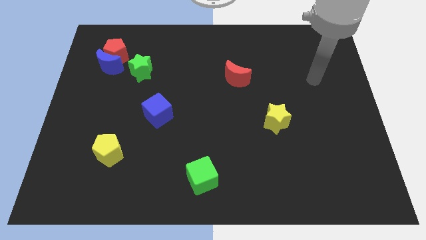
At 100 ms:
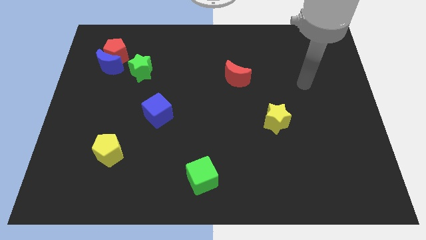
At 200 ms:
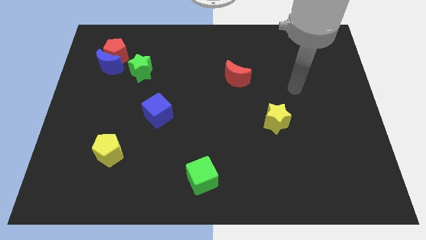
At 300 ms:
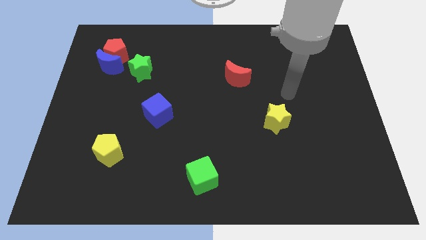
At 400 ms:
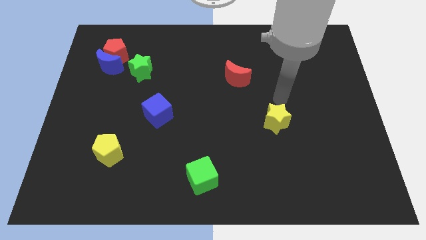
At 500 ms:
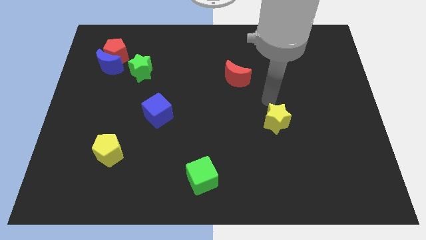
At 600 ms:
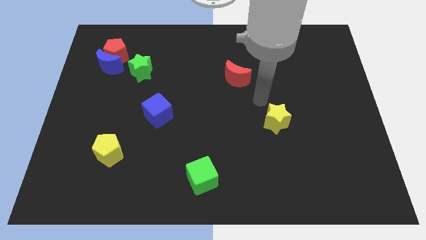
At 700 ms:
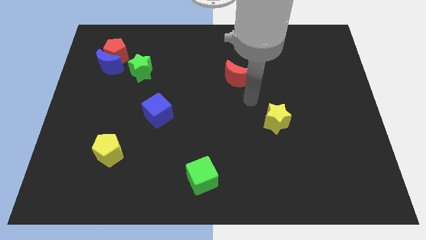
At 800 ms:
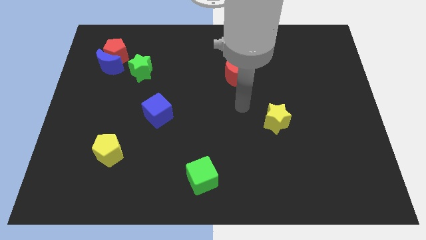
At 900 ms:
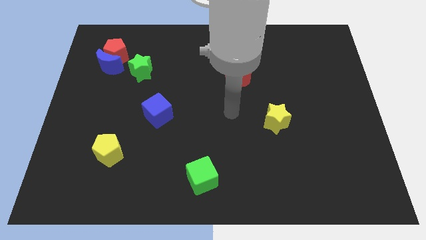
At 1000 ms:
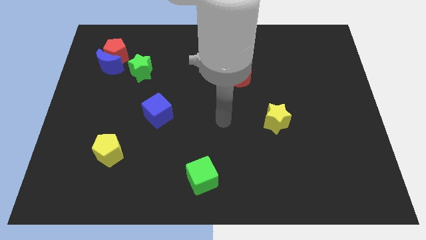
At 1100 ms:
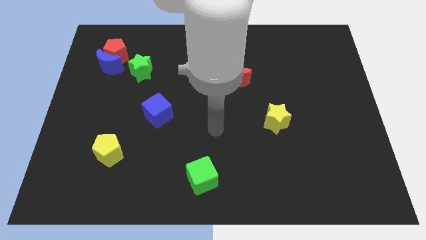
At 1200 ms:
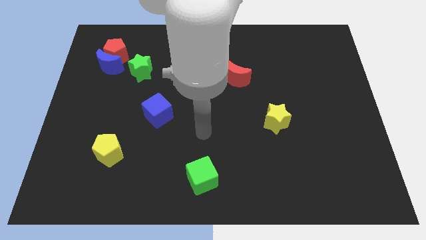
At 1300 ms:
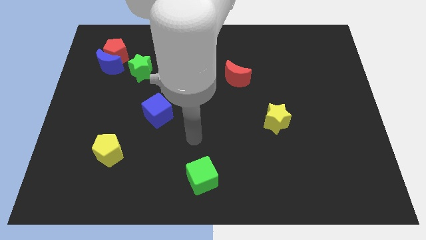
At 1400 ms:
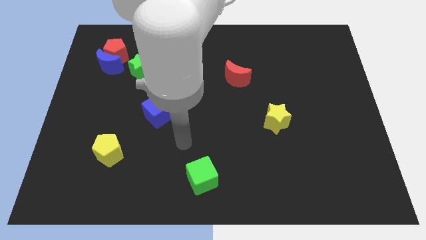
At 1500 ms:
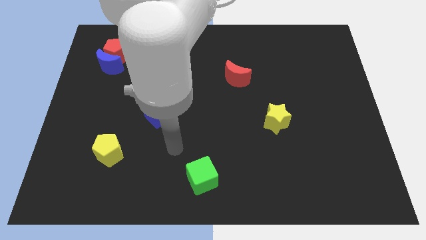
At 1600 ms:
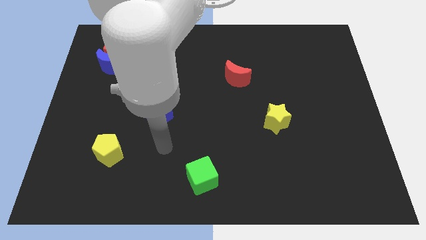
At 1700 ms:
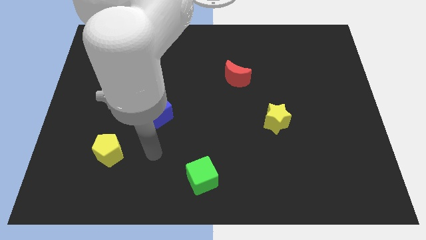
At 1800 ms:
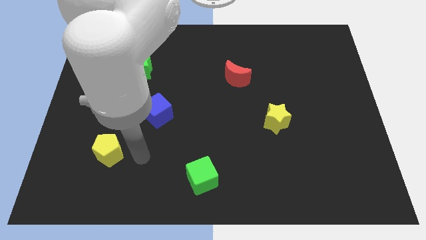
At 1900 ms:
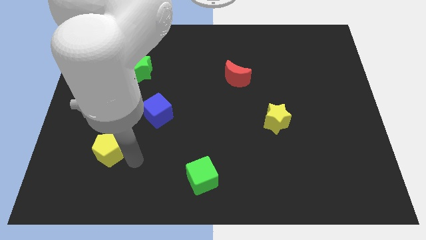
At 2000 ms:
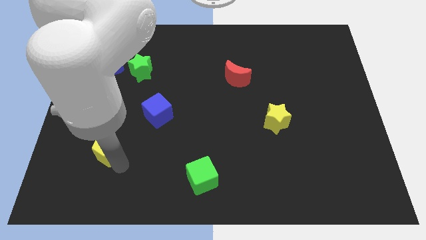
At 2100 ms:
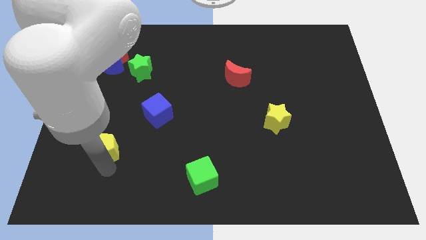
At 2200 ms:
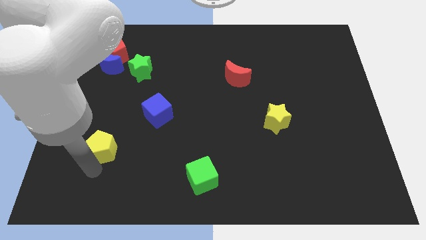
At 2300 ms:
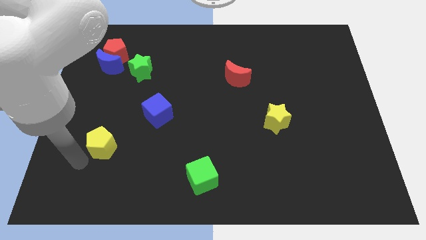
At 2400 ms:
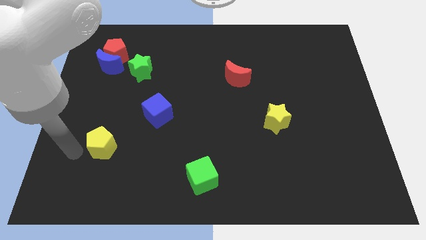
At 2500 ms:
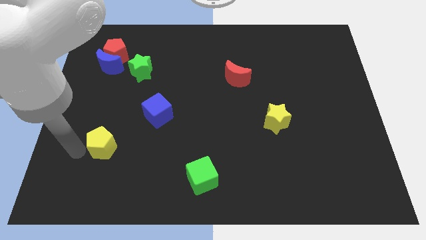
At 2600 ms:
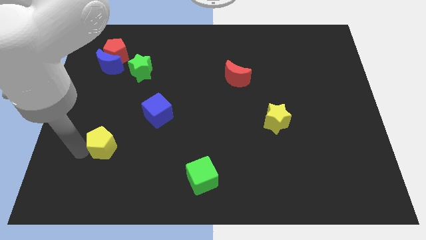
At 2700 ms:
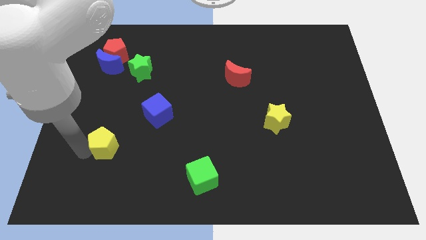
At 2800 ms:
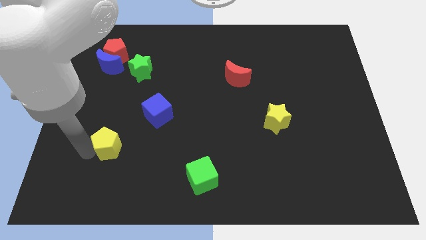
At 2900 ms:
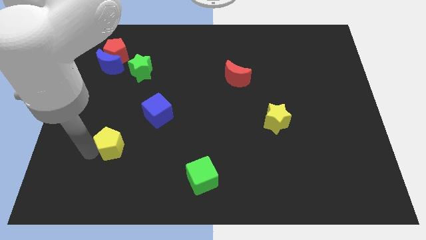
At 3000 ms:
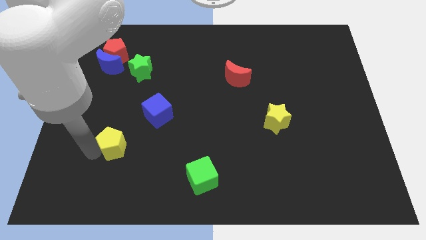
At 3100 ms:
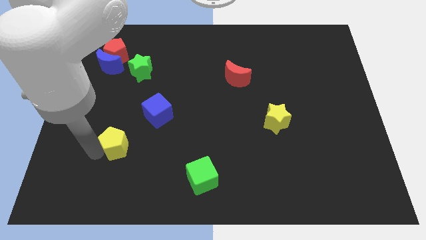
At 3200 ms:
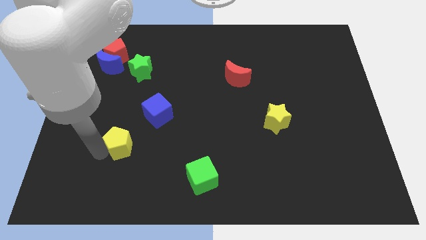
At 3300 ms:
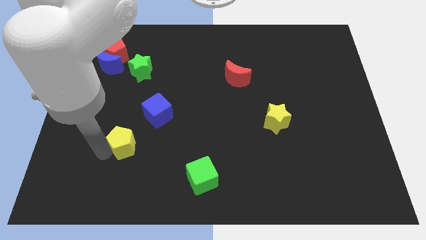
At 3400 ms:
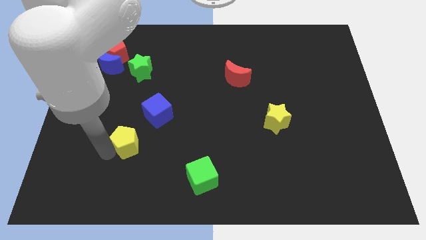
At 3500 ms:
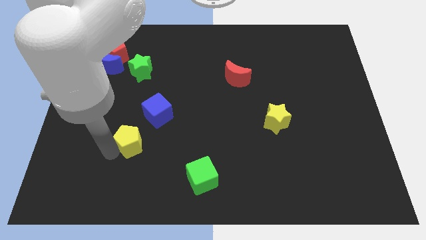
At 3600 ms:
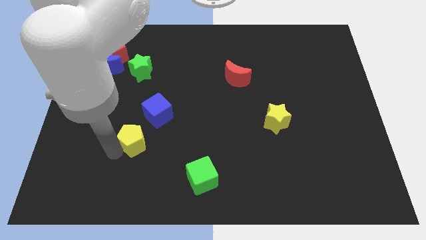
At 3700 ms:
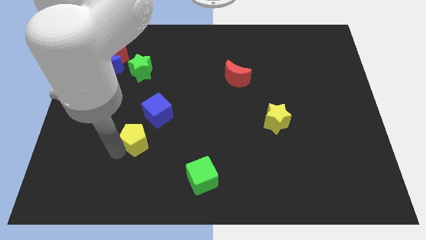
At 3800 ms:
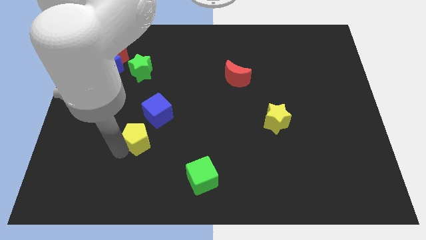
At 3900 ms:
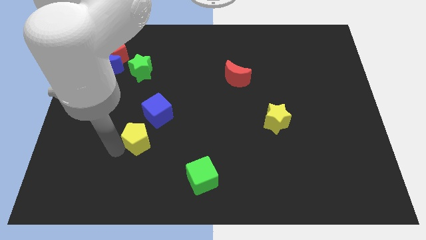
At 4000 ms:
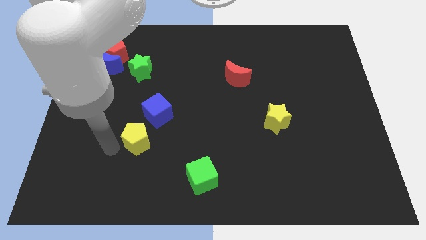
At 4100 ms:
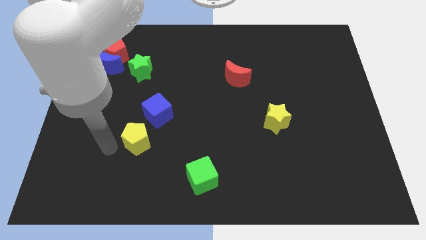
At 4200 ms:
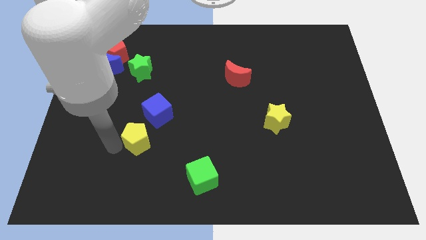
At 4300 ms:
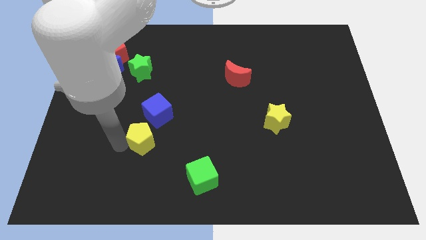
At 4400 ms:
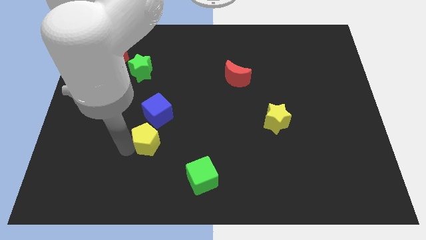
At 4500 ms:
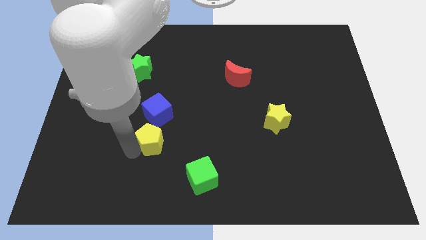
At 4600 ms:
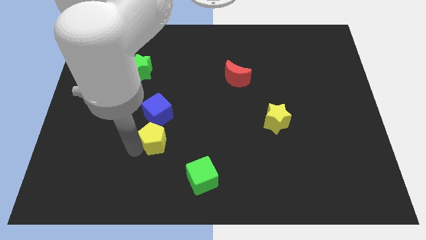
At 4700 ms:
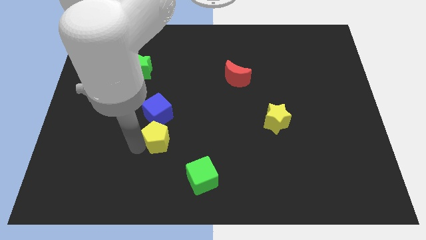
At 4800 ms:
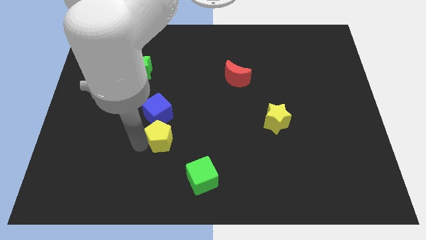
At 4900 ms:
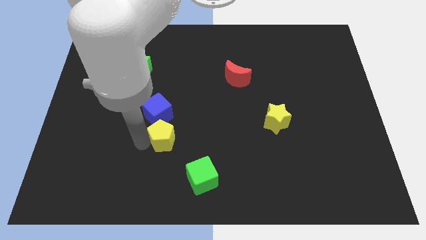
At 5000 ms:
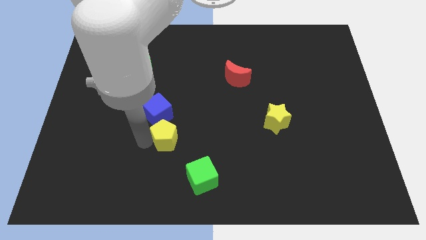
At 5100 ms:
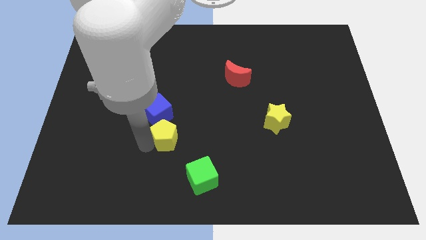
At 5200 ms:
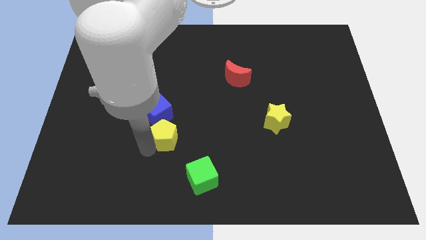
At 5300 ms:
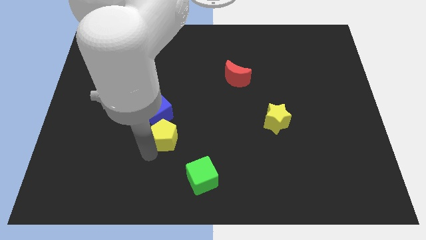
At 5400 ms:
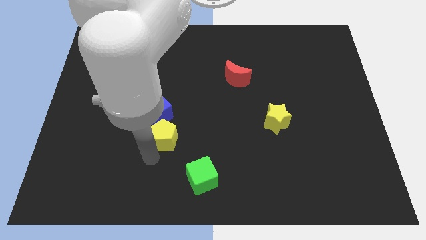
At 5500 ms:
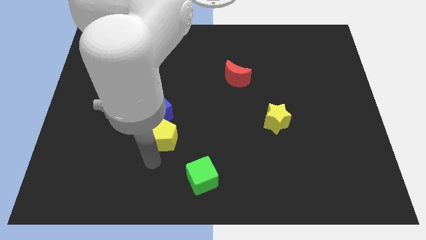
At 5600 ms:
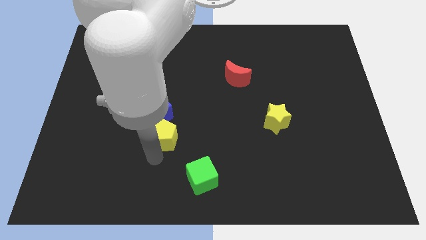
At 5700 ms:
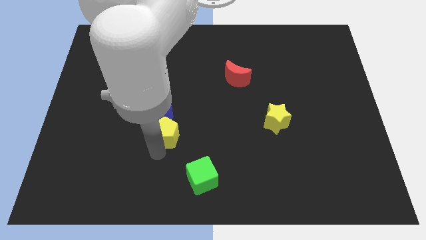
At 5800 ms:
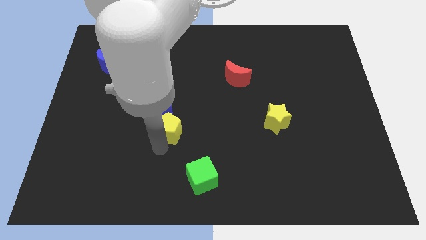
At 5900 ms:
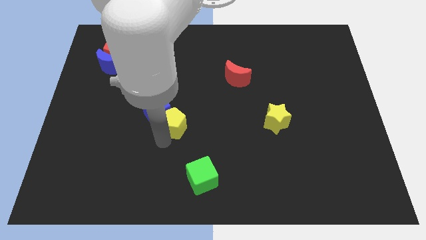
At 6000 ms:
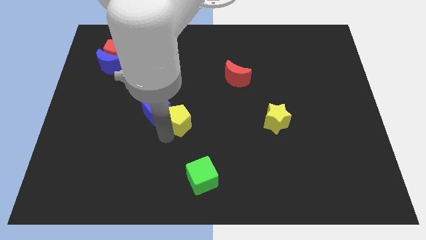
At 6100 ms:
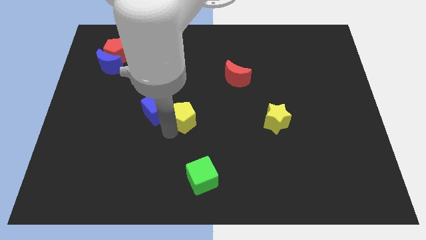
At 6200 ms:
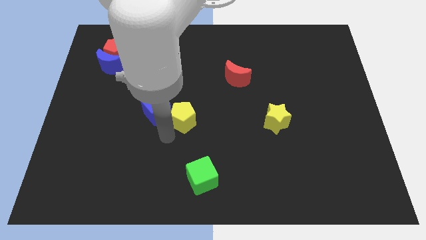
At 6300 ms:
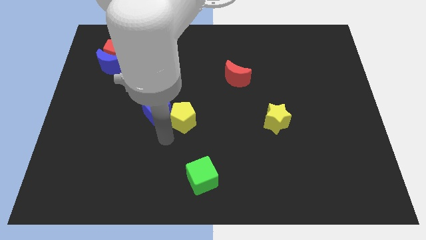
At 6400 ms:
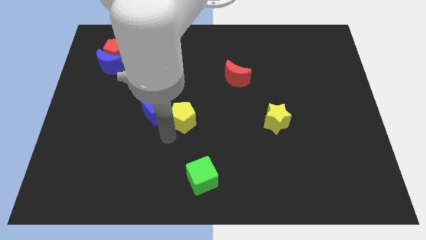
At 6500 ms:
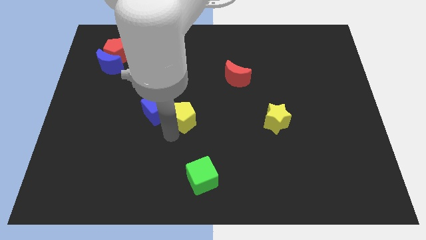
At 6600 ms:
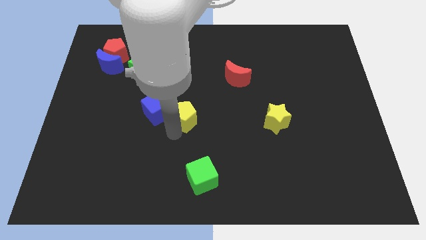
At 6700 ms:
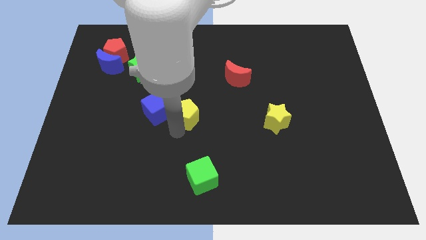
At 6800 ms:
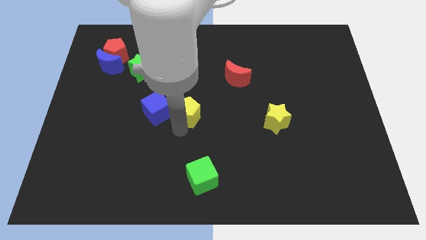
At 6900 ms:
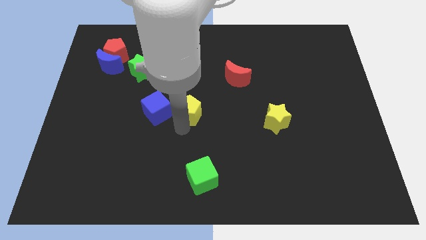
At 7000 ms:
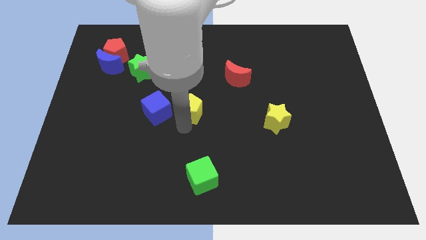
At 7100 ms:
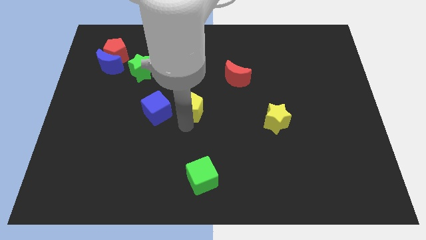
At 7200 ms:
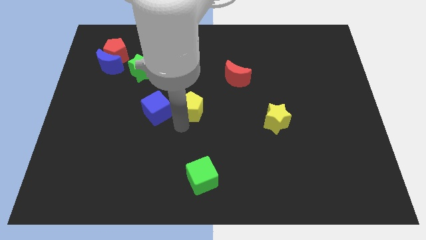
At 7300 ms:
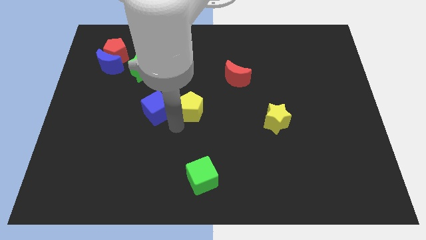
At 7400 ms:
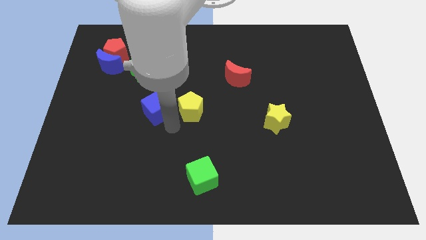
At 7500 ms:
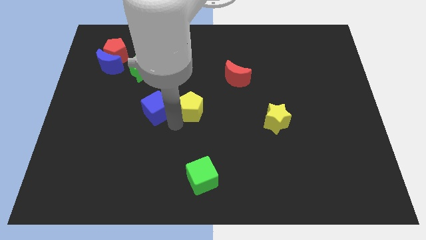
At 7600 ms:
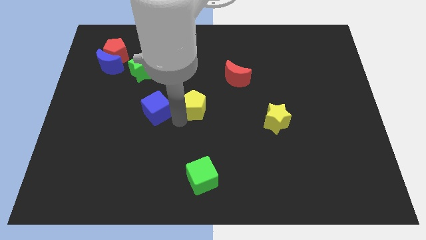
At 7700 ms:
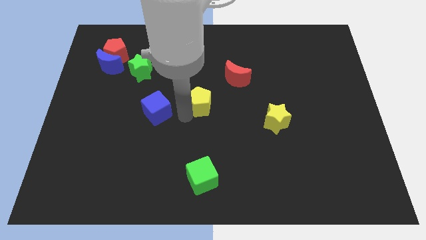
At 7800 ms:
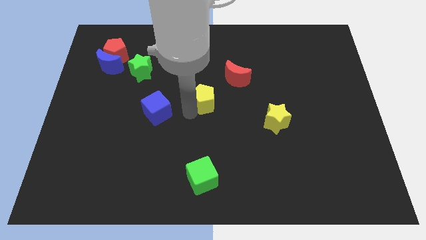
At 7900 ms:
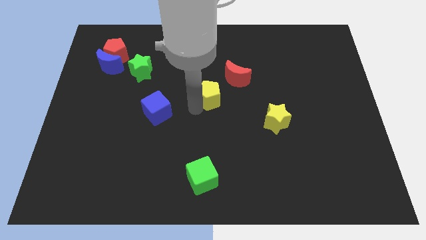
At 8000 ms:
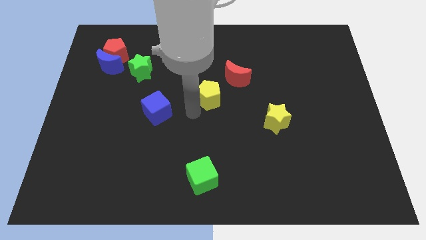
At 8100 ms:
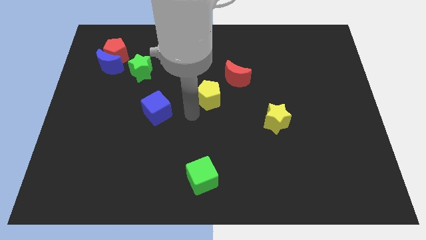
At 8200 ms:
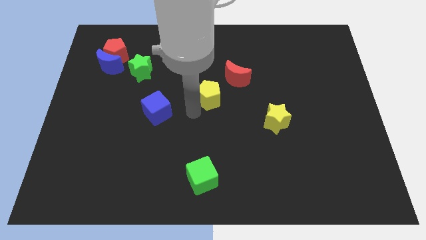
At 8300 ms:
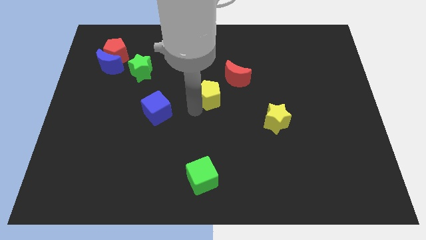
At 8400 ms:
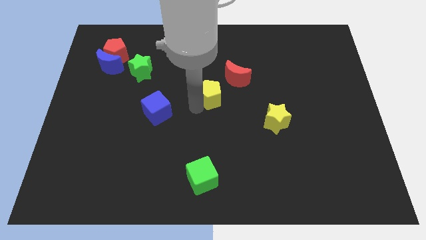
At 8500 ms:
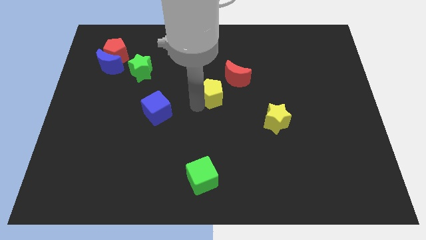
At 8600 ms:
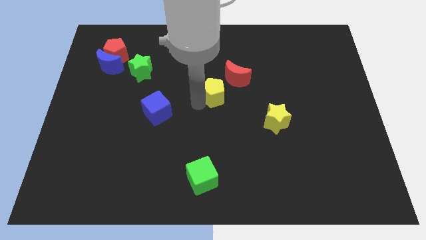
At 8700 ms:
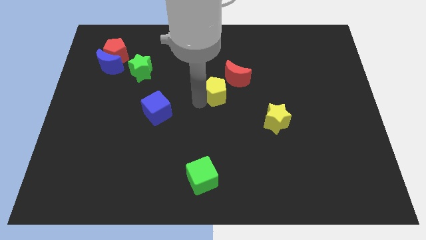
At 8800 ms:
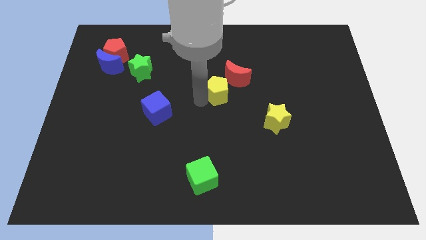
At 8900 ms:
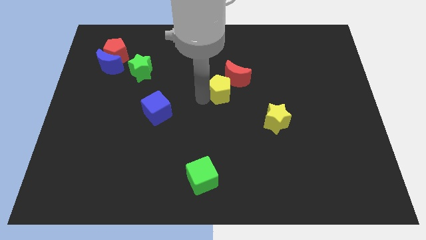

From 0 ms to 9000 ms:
move the yellow pentagon next to the red moon
